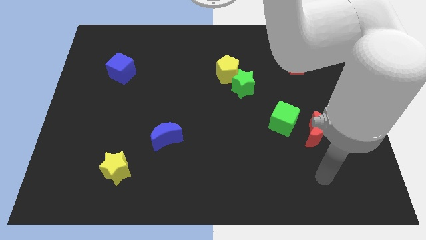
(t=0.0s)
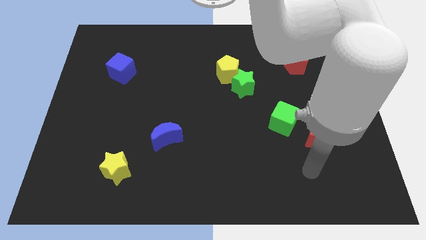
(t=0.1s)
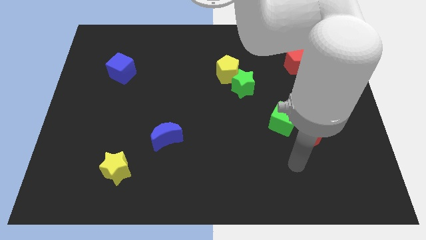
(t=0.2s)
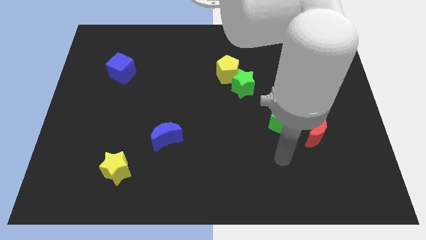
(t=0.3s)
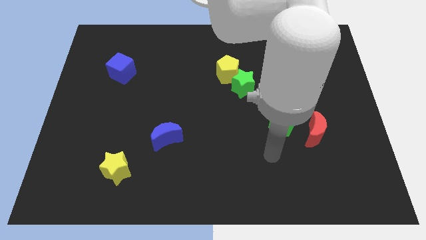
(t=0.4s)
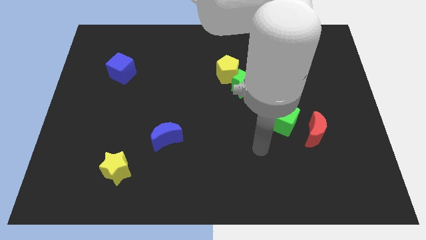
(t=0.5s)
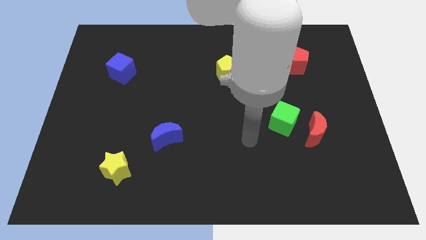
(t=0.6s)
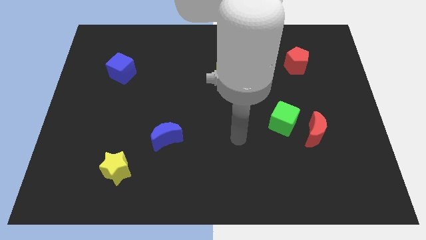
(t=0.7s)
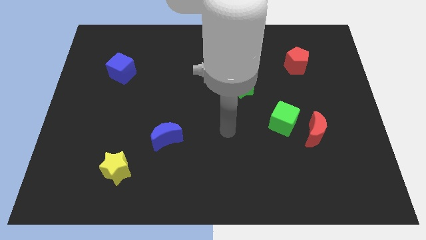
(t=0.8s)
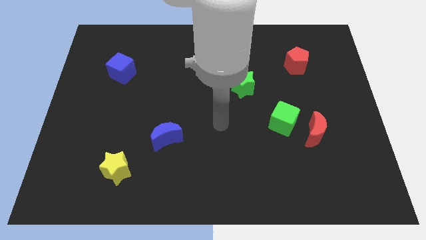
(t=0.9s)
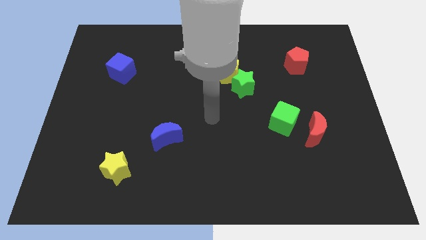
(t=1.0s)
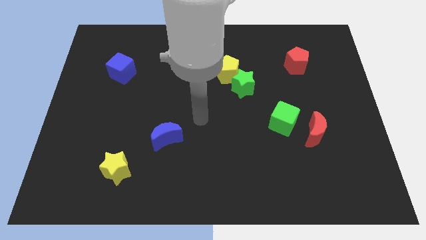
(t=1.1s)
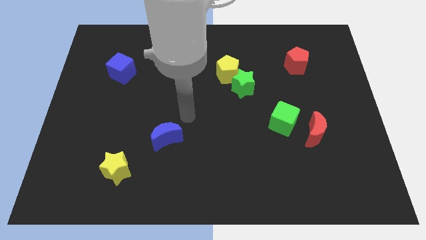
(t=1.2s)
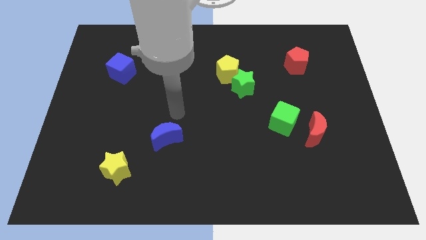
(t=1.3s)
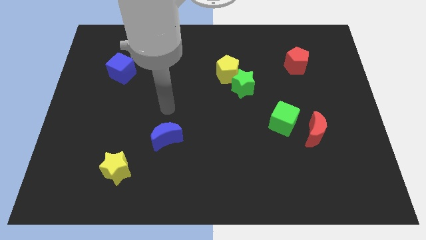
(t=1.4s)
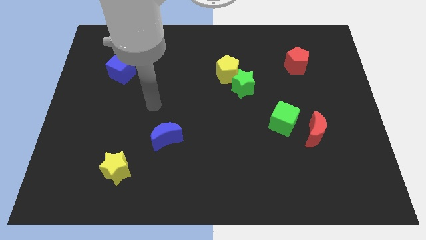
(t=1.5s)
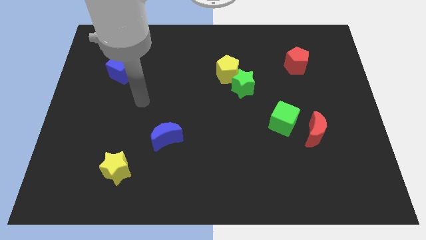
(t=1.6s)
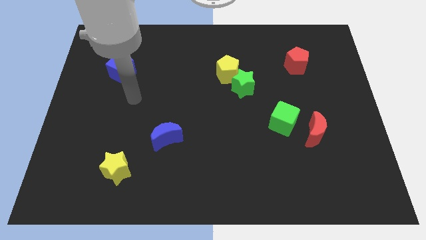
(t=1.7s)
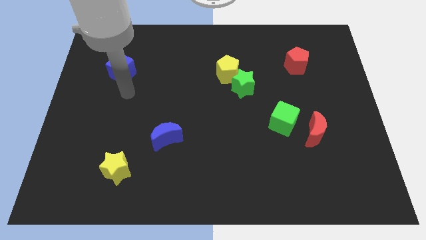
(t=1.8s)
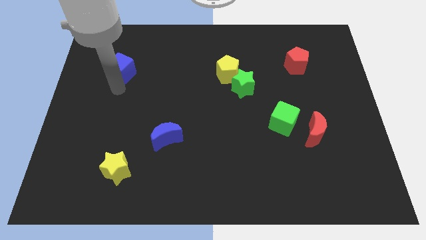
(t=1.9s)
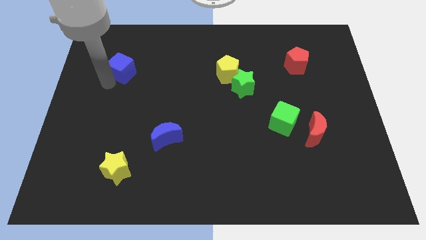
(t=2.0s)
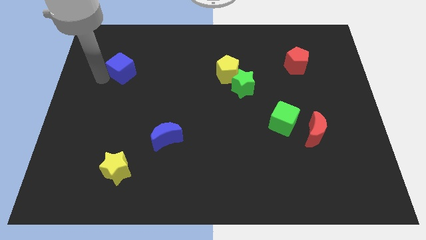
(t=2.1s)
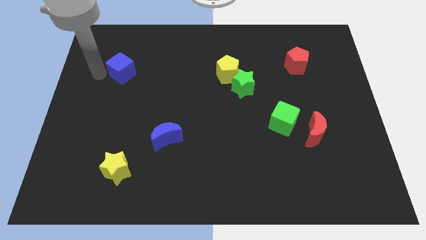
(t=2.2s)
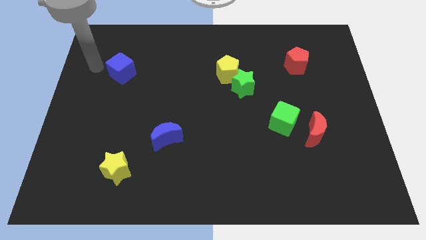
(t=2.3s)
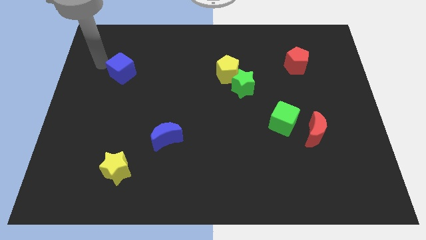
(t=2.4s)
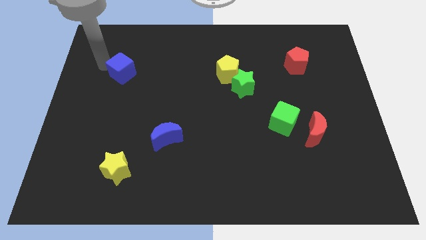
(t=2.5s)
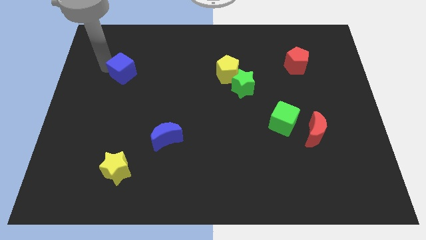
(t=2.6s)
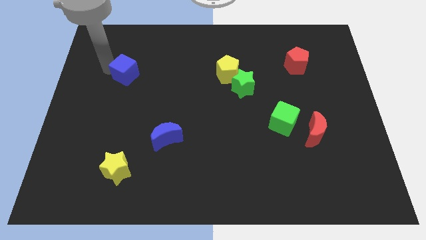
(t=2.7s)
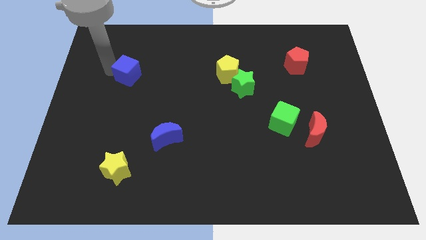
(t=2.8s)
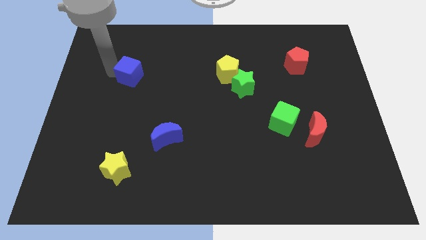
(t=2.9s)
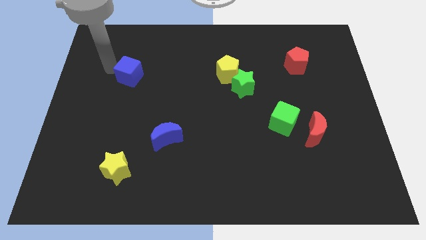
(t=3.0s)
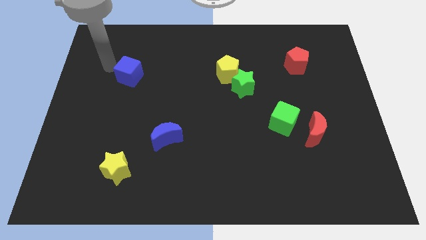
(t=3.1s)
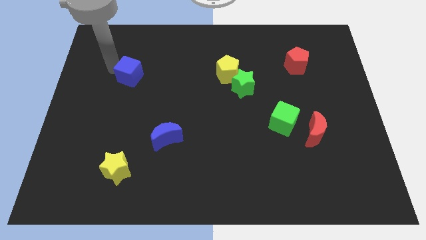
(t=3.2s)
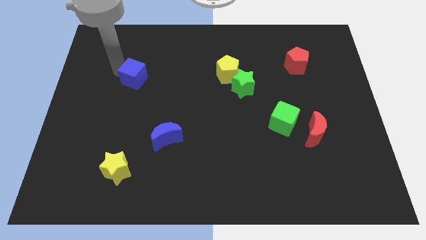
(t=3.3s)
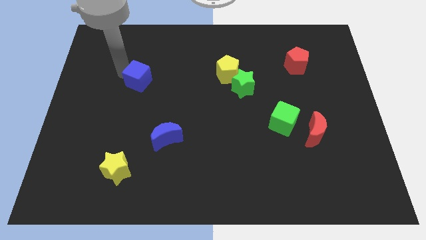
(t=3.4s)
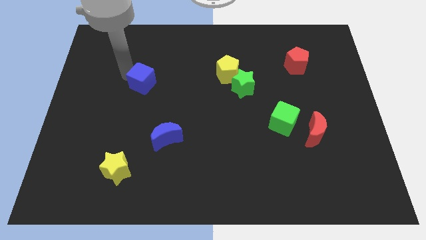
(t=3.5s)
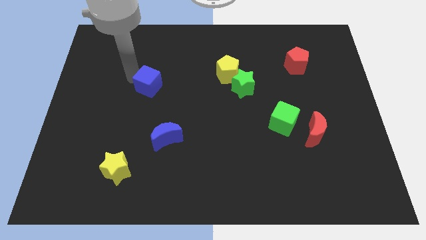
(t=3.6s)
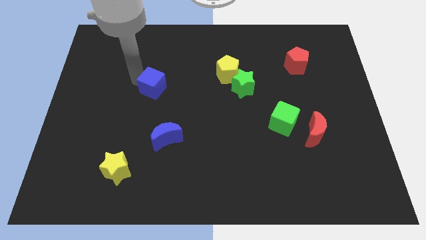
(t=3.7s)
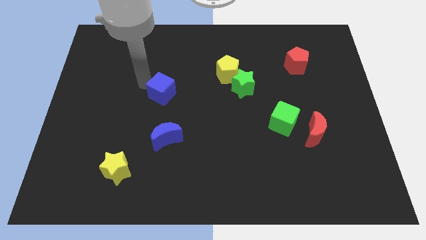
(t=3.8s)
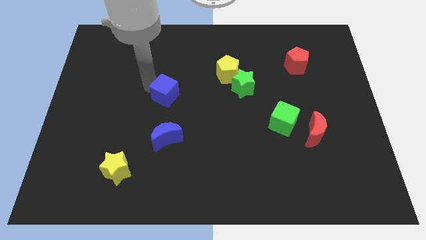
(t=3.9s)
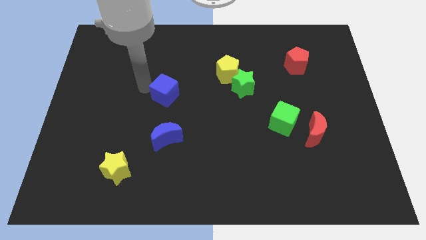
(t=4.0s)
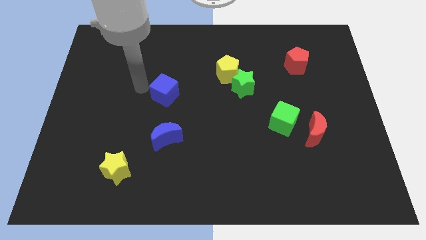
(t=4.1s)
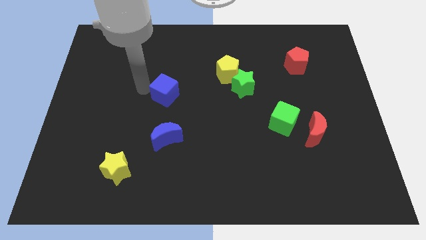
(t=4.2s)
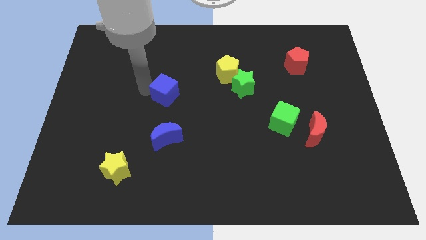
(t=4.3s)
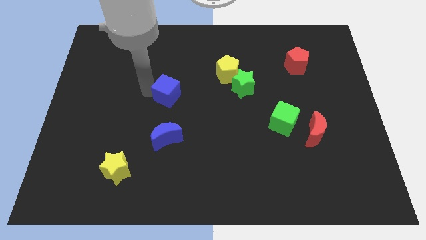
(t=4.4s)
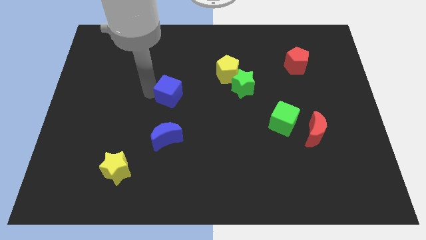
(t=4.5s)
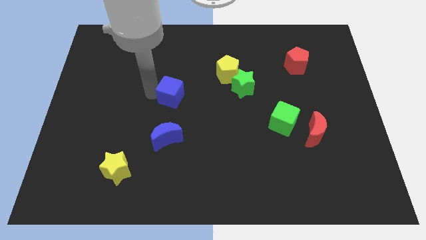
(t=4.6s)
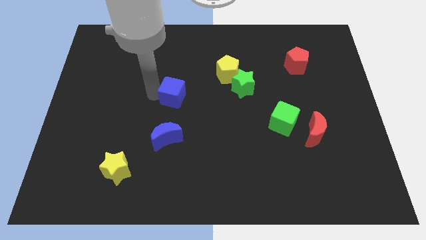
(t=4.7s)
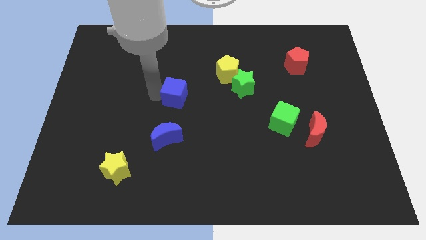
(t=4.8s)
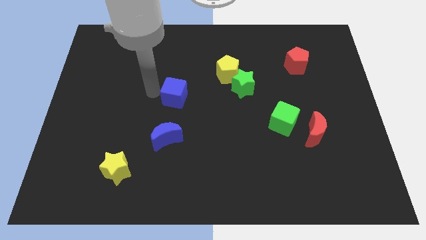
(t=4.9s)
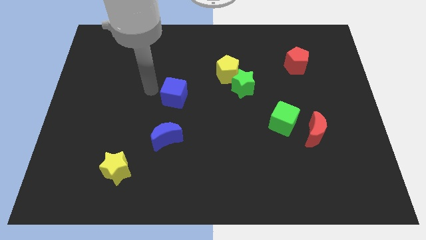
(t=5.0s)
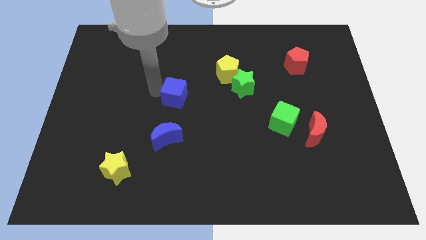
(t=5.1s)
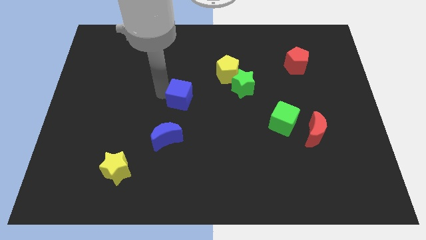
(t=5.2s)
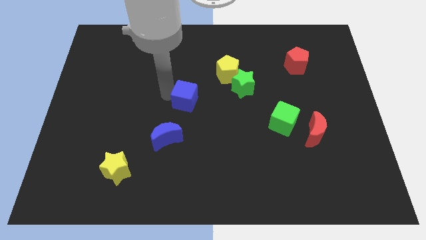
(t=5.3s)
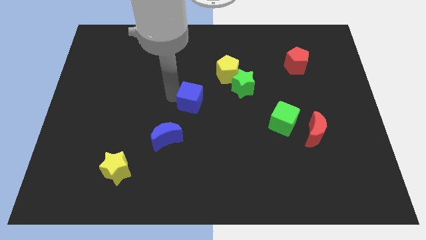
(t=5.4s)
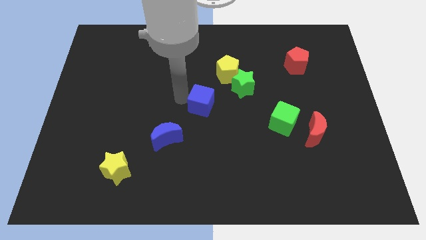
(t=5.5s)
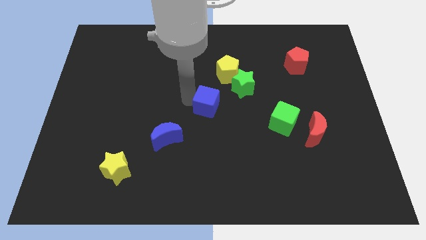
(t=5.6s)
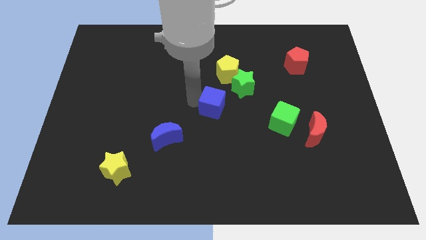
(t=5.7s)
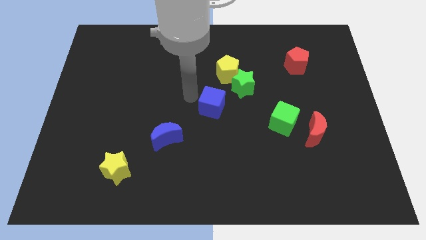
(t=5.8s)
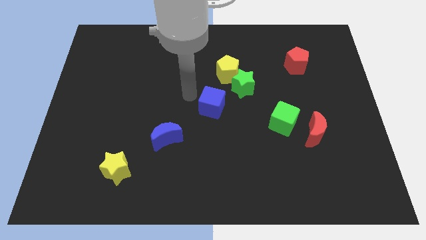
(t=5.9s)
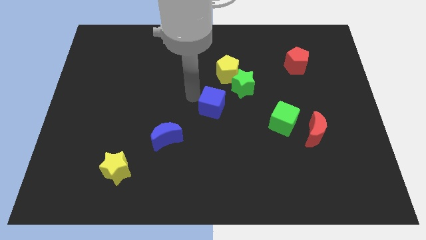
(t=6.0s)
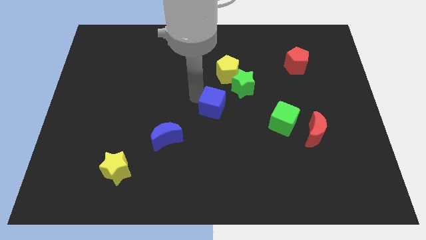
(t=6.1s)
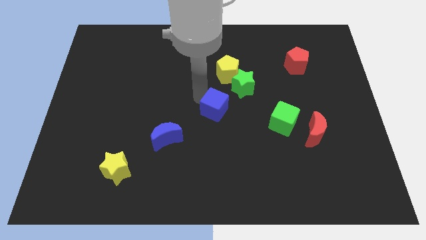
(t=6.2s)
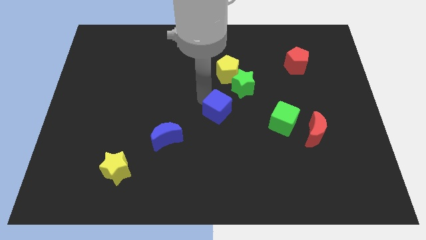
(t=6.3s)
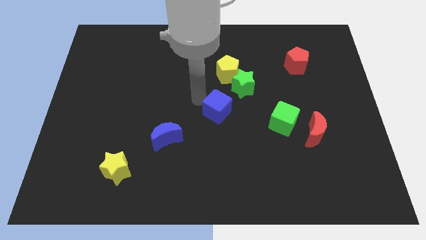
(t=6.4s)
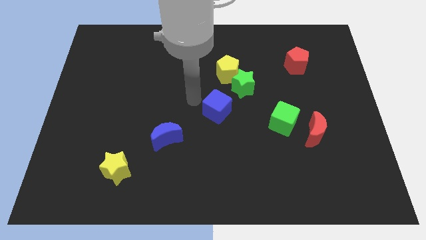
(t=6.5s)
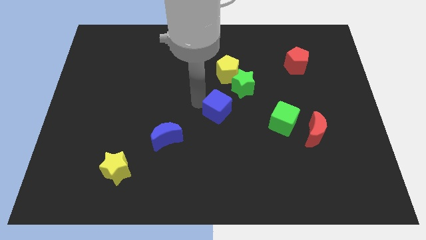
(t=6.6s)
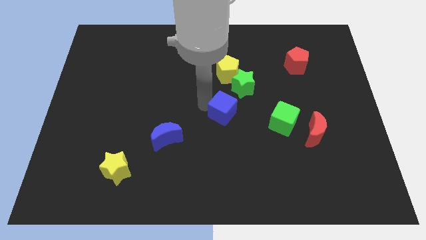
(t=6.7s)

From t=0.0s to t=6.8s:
push the blue cube to the bottom side of the green star
